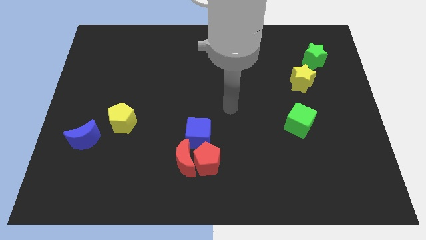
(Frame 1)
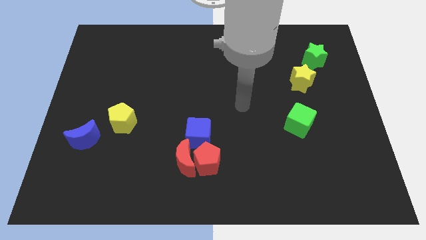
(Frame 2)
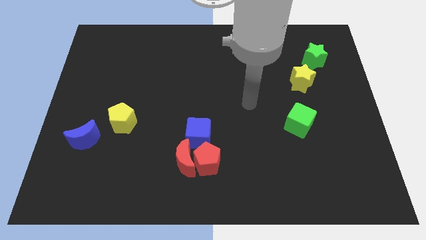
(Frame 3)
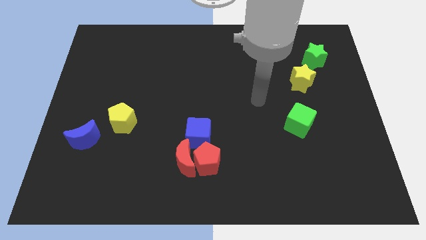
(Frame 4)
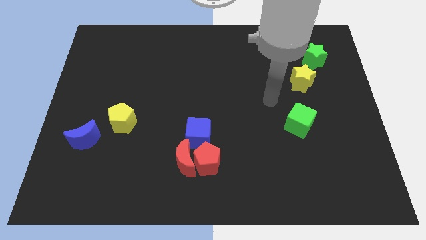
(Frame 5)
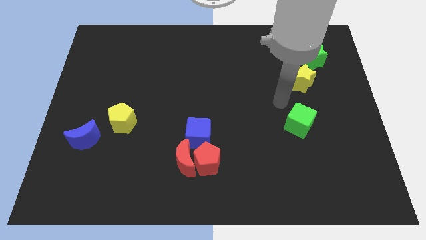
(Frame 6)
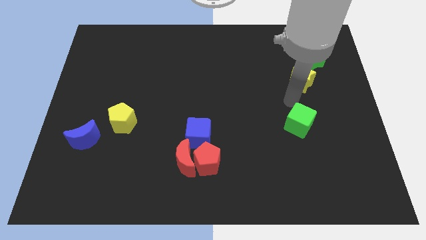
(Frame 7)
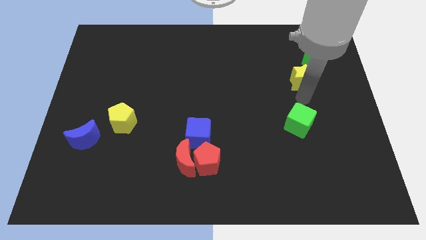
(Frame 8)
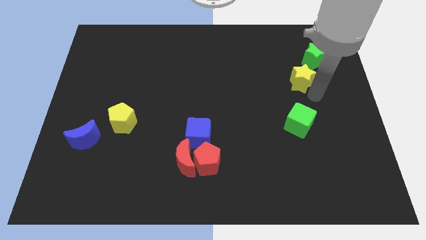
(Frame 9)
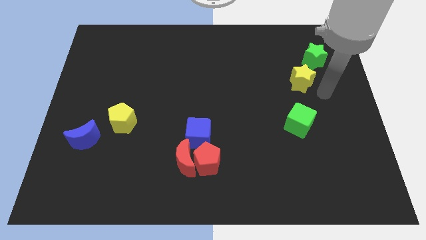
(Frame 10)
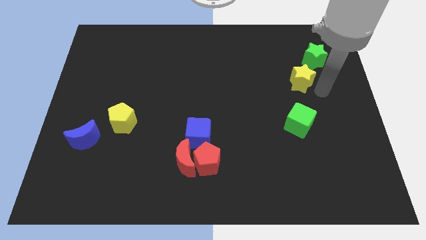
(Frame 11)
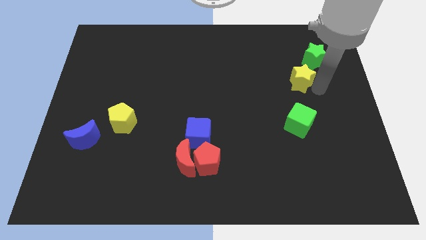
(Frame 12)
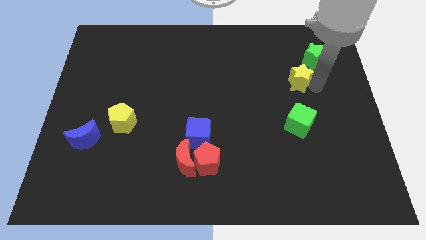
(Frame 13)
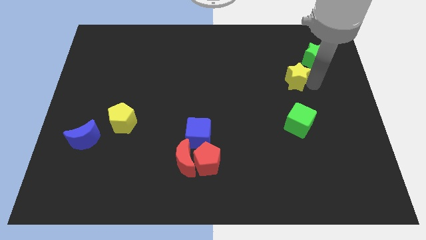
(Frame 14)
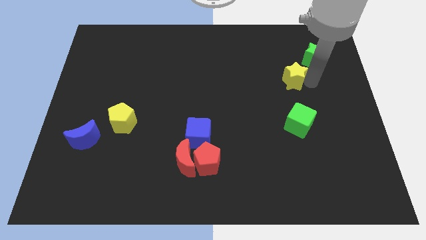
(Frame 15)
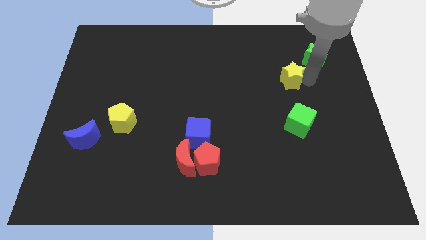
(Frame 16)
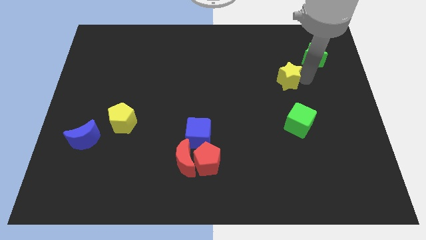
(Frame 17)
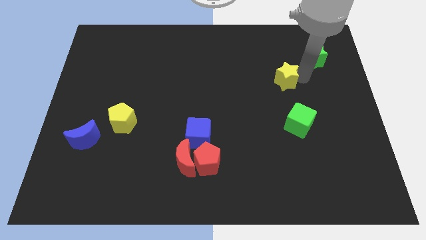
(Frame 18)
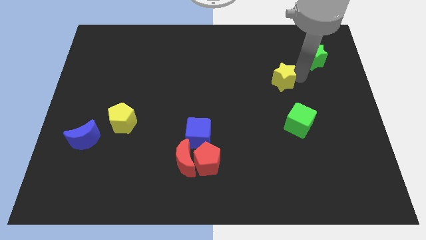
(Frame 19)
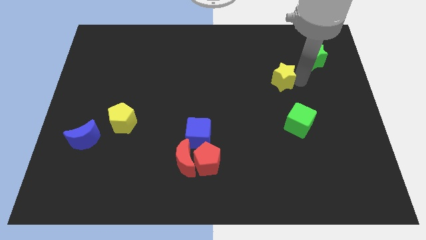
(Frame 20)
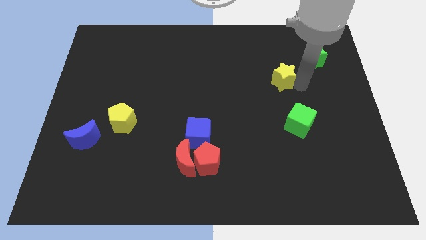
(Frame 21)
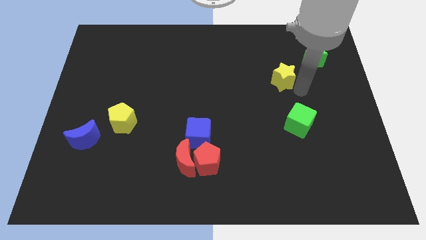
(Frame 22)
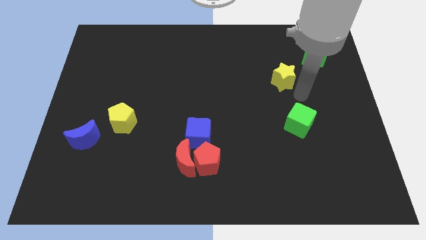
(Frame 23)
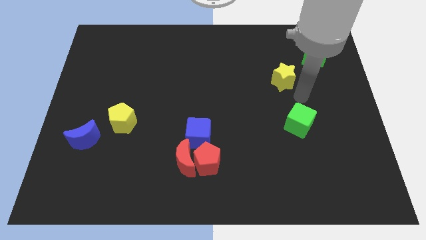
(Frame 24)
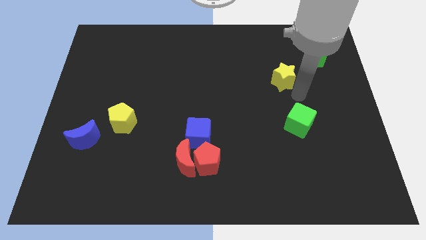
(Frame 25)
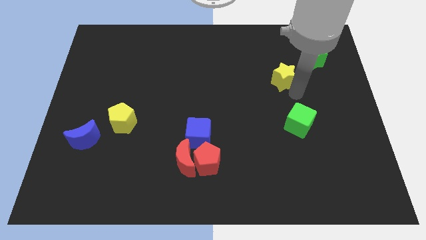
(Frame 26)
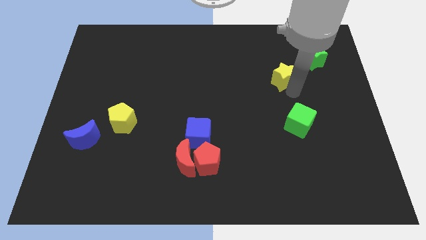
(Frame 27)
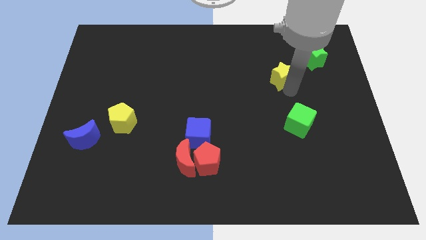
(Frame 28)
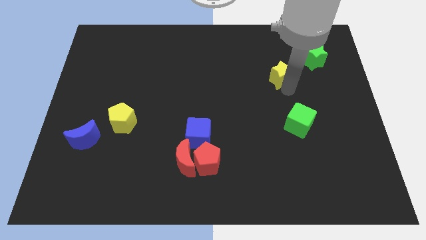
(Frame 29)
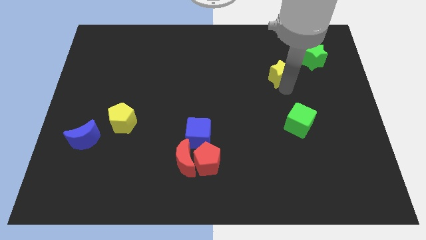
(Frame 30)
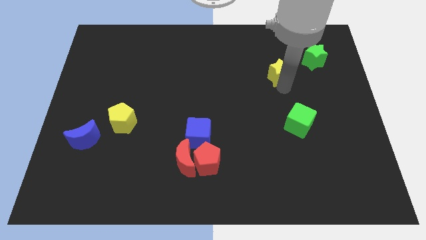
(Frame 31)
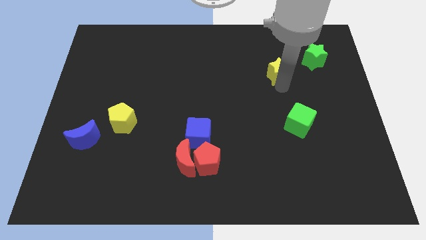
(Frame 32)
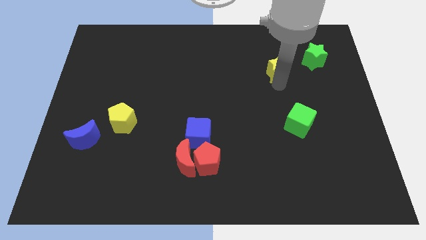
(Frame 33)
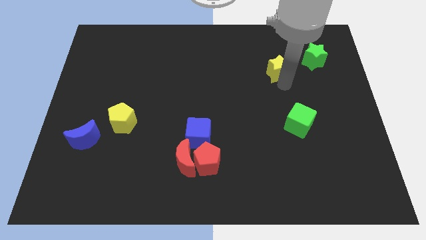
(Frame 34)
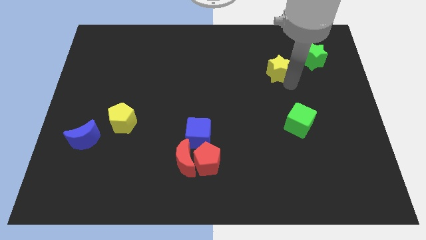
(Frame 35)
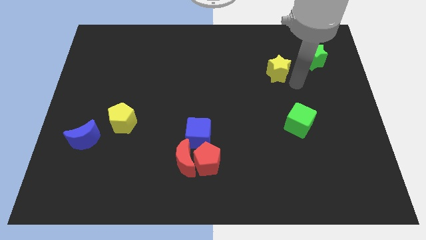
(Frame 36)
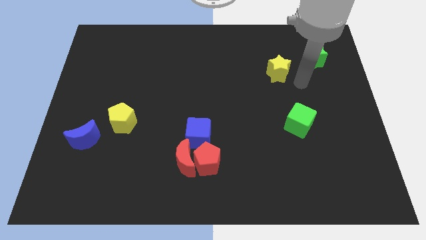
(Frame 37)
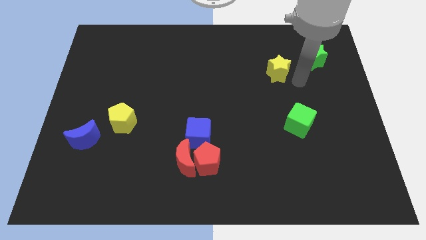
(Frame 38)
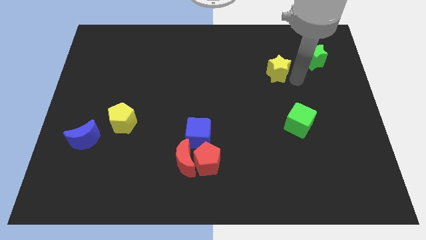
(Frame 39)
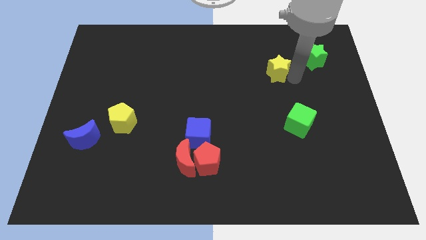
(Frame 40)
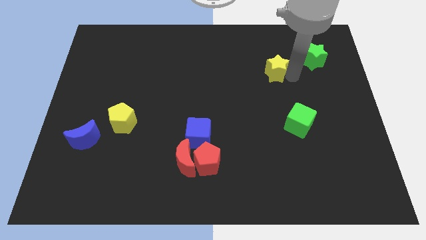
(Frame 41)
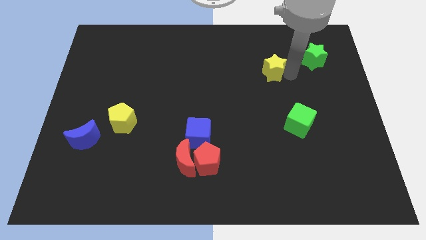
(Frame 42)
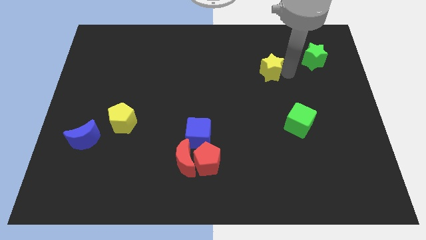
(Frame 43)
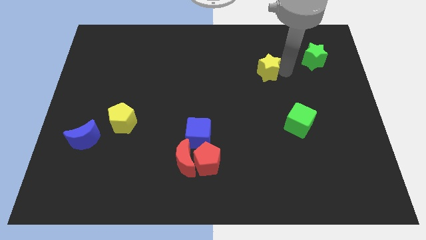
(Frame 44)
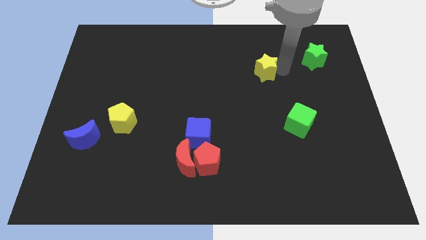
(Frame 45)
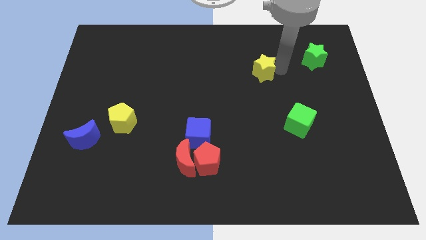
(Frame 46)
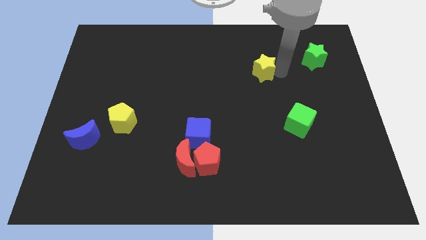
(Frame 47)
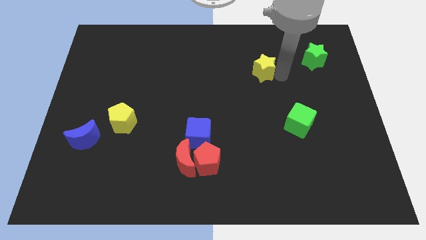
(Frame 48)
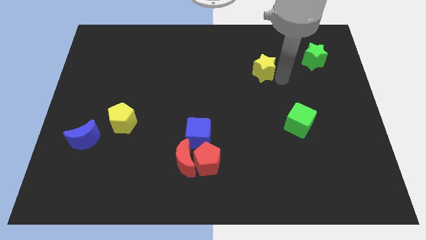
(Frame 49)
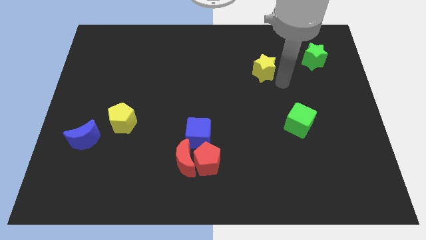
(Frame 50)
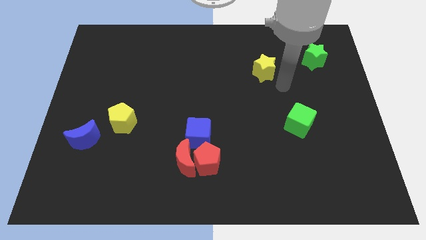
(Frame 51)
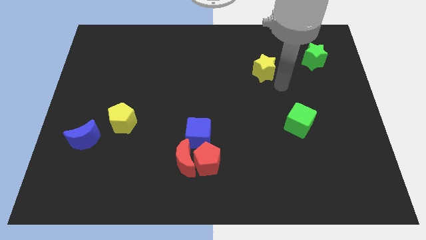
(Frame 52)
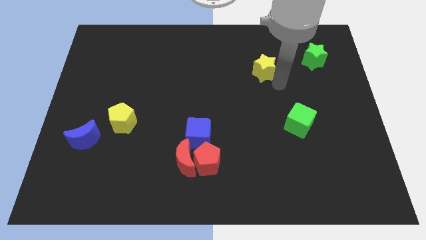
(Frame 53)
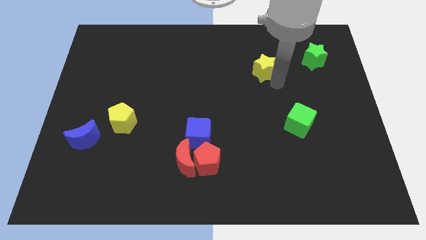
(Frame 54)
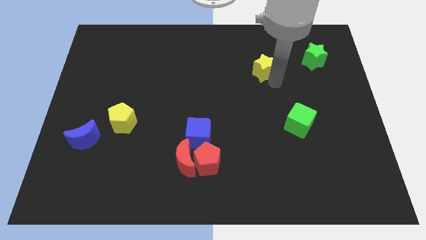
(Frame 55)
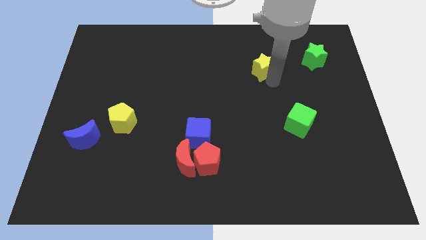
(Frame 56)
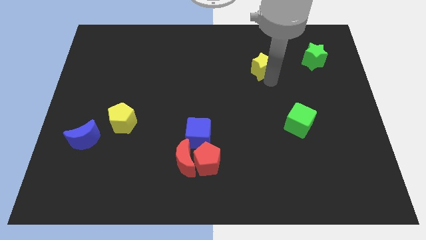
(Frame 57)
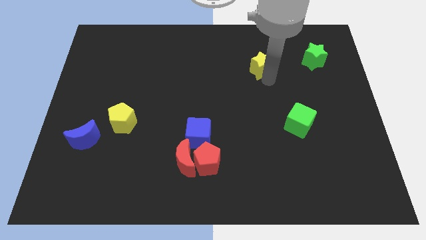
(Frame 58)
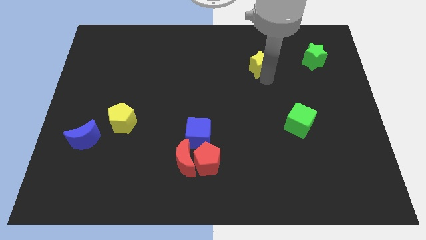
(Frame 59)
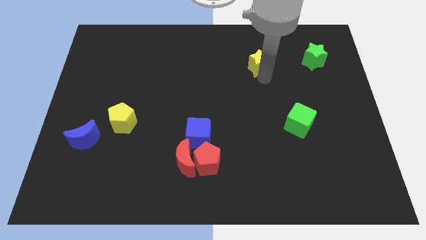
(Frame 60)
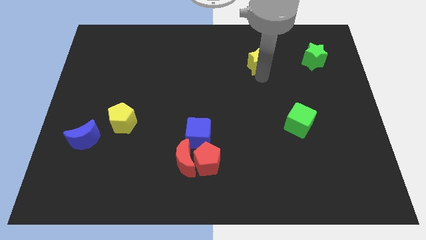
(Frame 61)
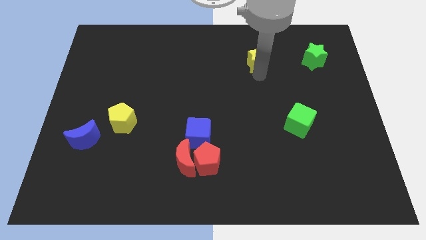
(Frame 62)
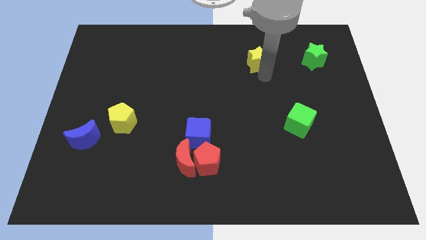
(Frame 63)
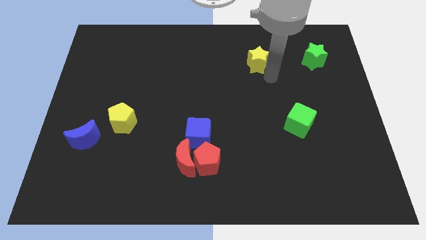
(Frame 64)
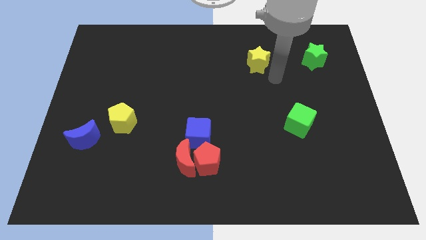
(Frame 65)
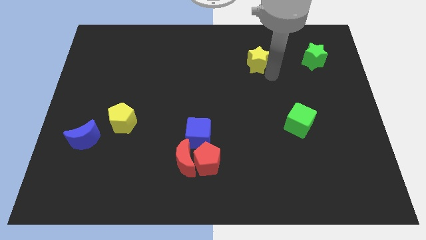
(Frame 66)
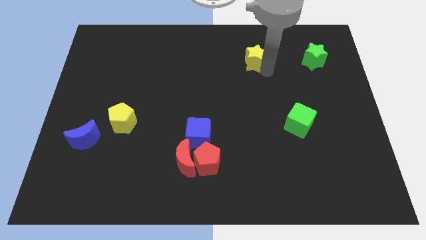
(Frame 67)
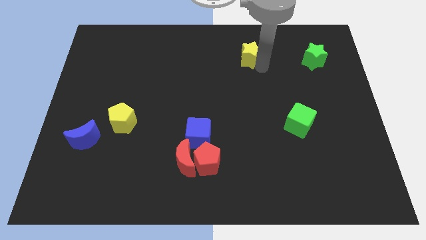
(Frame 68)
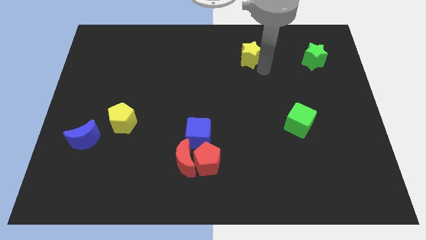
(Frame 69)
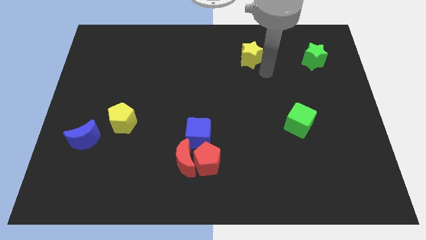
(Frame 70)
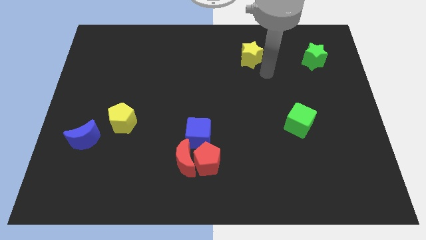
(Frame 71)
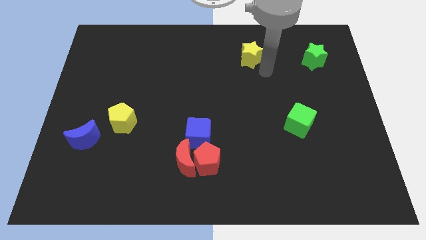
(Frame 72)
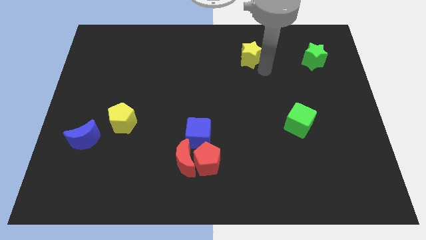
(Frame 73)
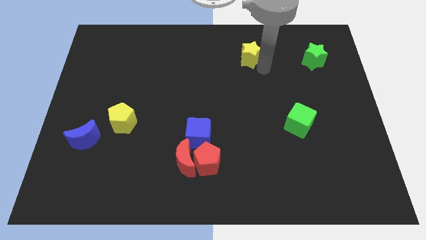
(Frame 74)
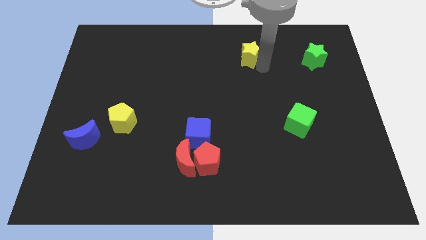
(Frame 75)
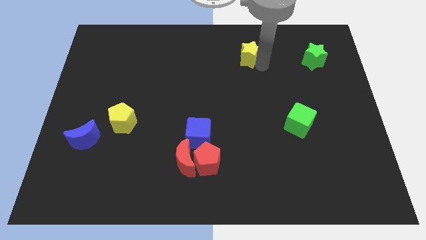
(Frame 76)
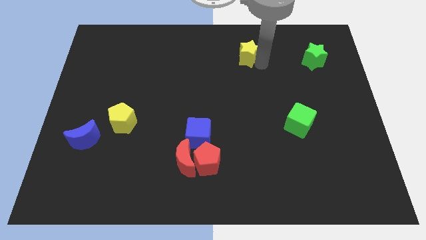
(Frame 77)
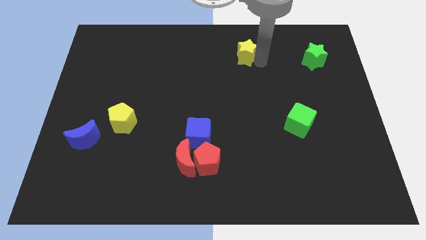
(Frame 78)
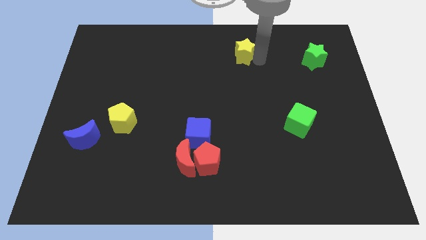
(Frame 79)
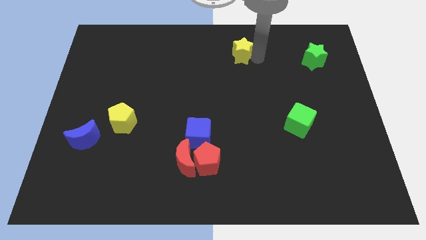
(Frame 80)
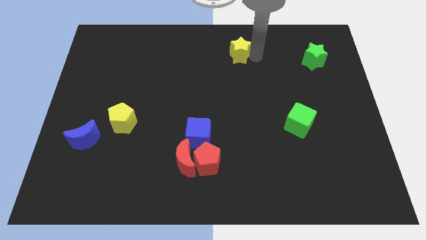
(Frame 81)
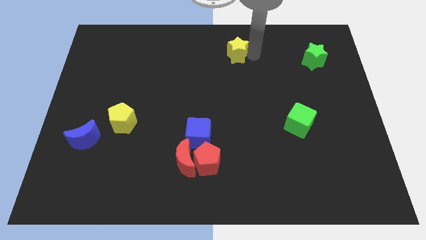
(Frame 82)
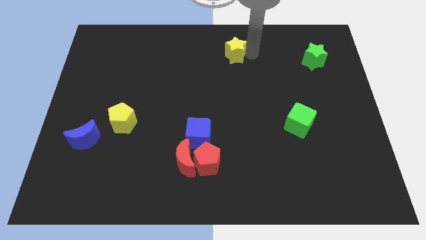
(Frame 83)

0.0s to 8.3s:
put the yellow star to the towards your base
